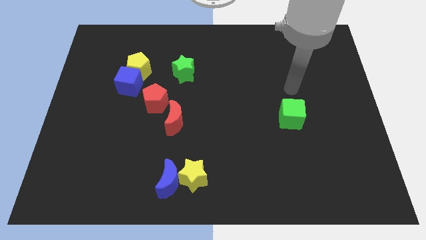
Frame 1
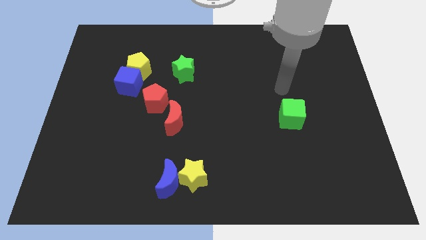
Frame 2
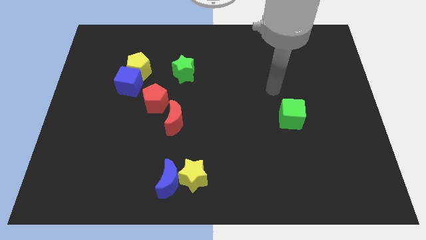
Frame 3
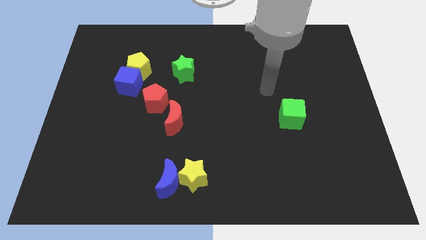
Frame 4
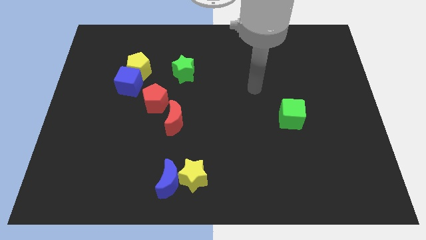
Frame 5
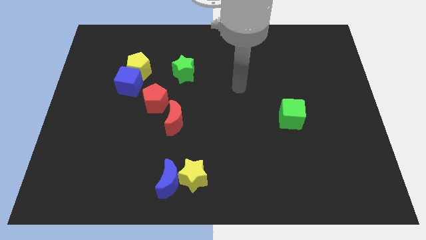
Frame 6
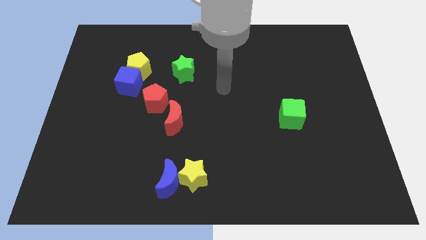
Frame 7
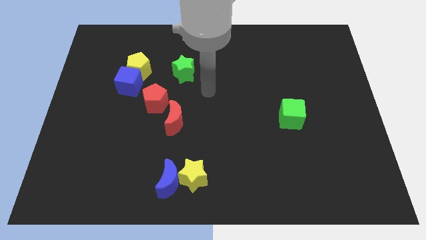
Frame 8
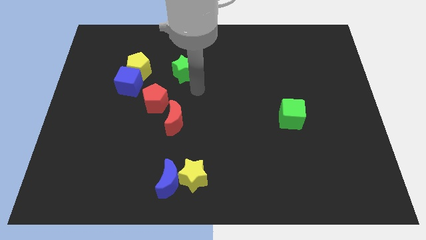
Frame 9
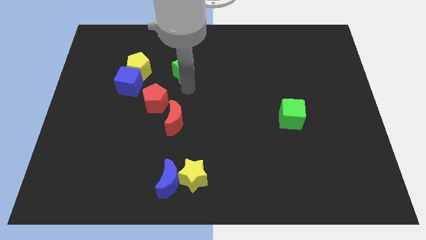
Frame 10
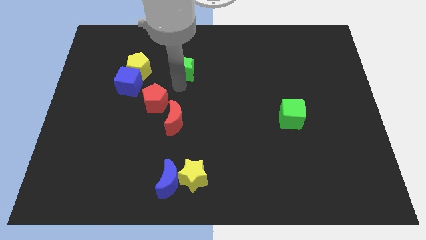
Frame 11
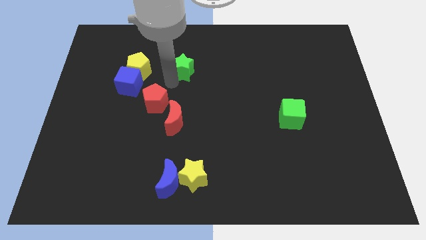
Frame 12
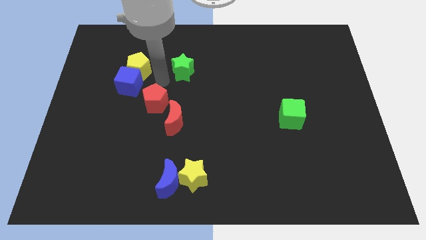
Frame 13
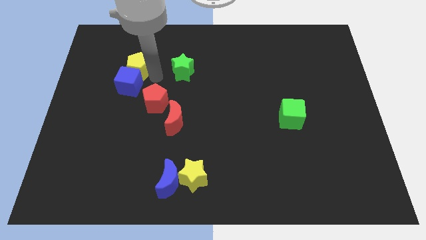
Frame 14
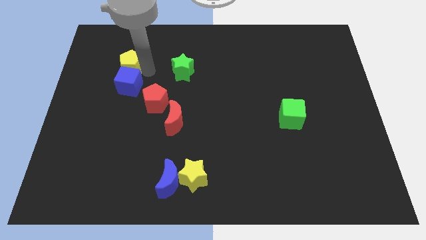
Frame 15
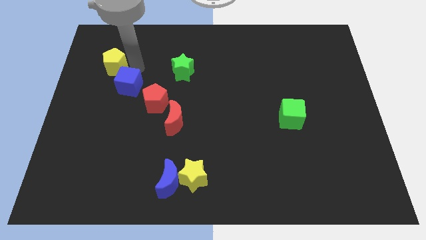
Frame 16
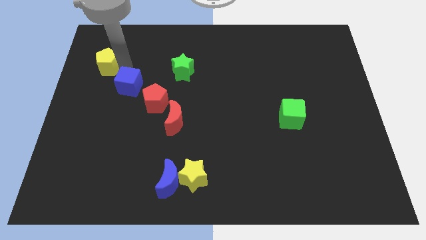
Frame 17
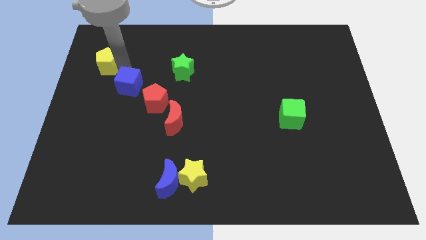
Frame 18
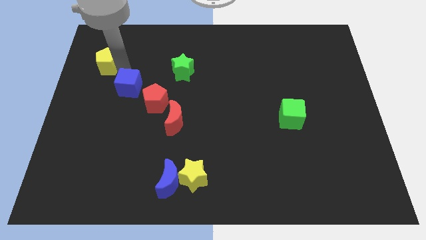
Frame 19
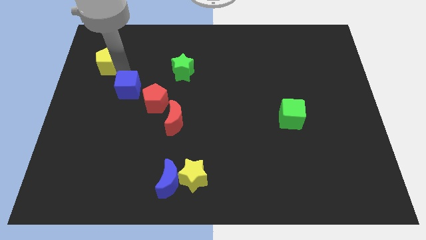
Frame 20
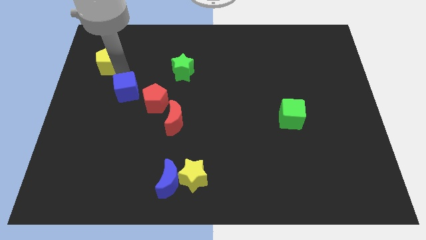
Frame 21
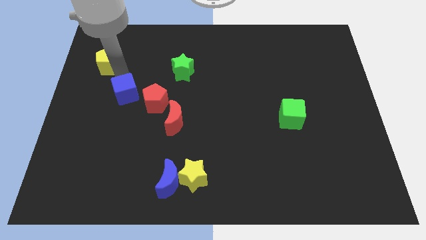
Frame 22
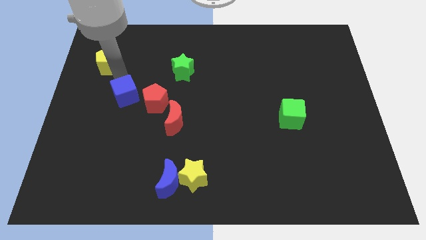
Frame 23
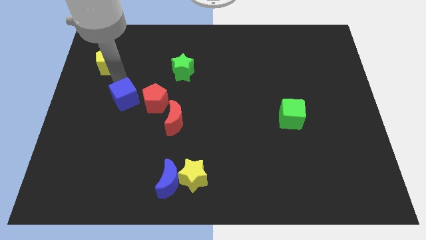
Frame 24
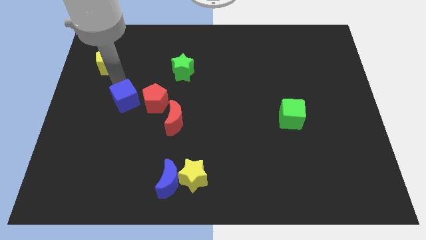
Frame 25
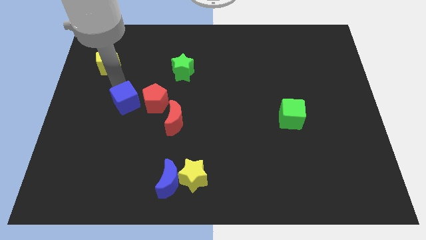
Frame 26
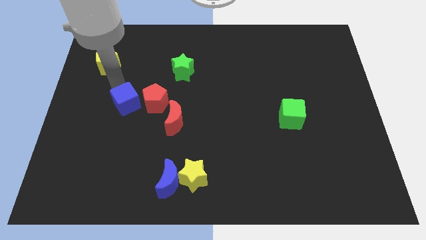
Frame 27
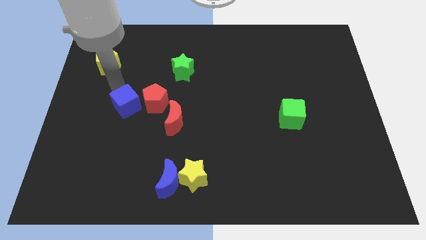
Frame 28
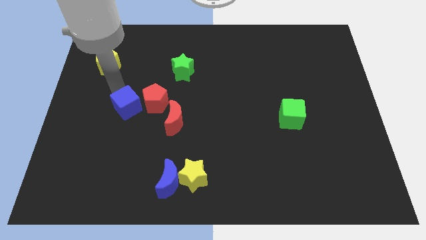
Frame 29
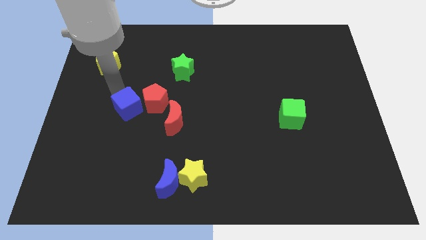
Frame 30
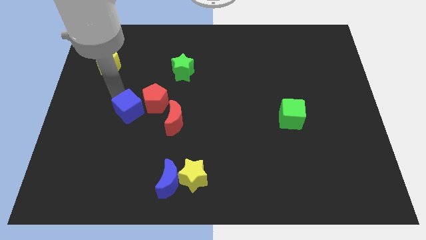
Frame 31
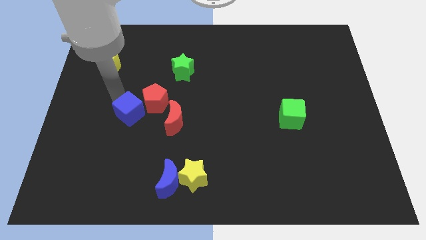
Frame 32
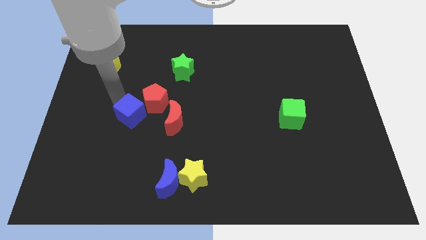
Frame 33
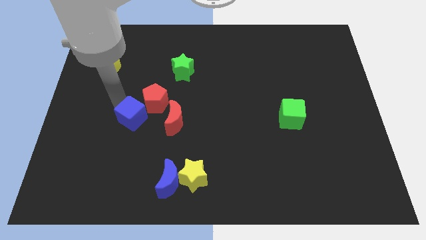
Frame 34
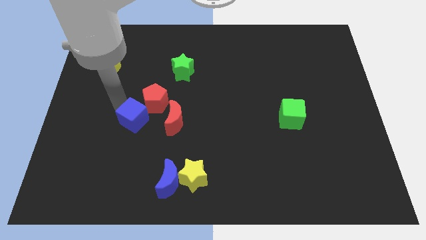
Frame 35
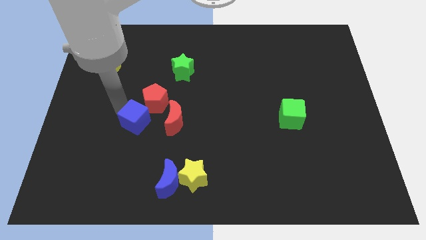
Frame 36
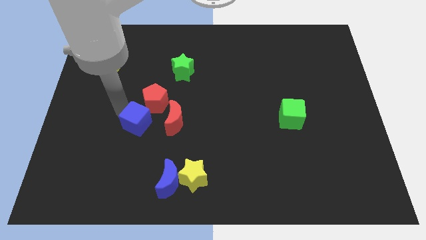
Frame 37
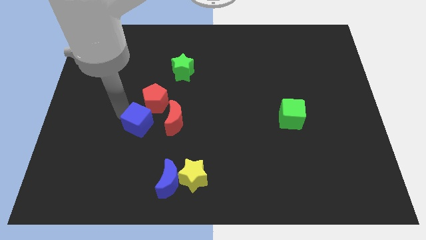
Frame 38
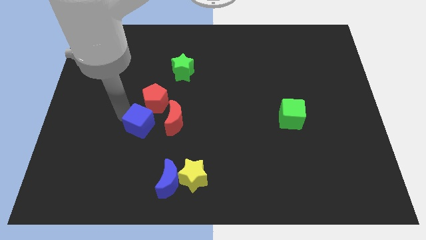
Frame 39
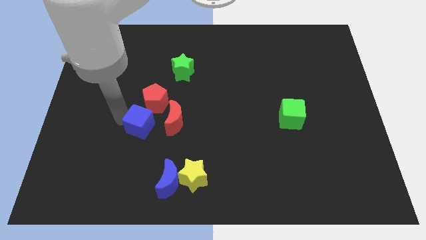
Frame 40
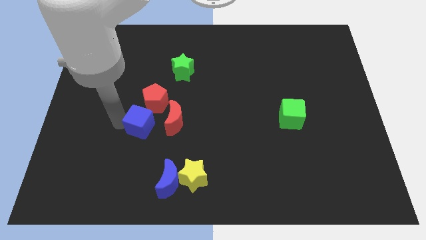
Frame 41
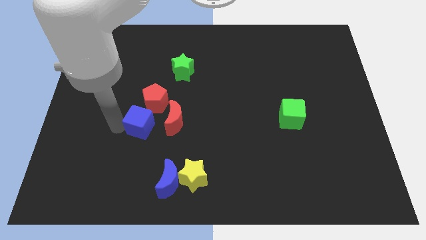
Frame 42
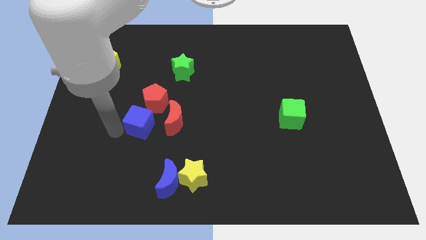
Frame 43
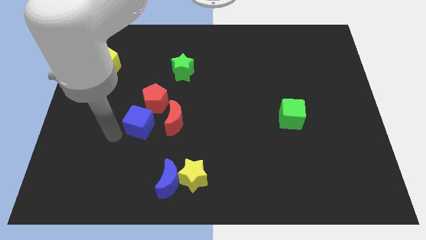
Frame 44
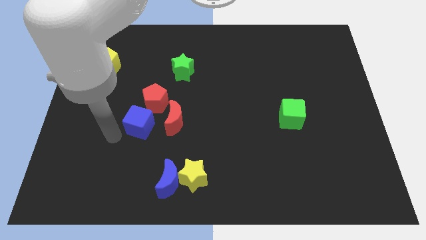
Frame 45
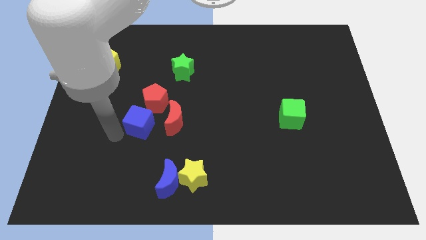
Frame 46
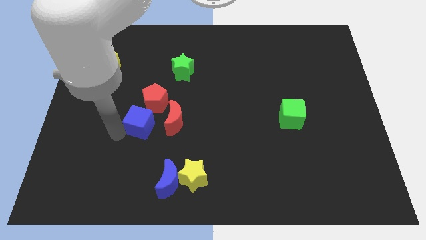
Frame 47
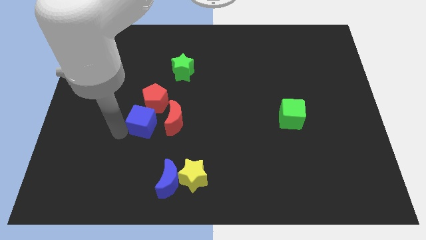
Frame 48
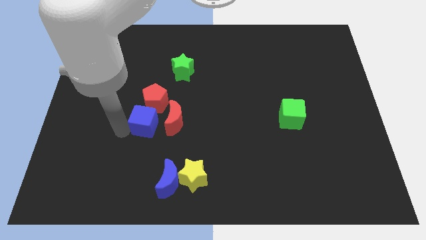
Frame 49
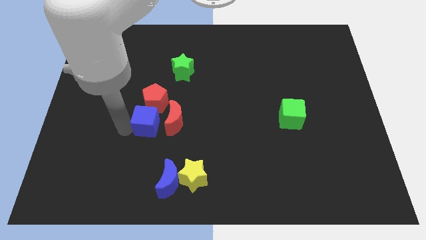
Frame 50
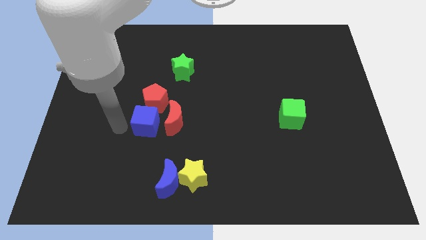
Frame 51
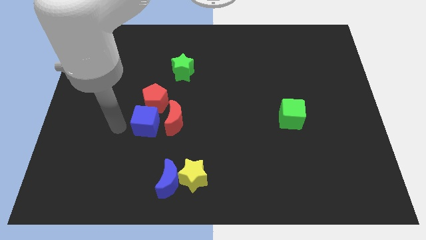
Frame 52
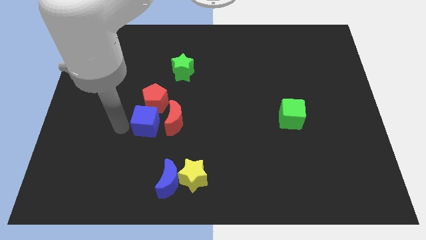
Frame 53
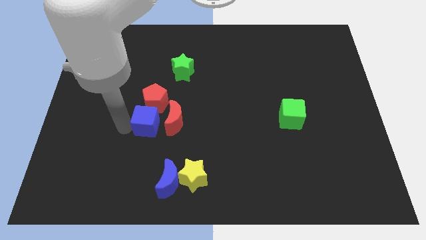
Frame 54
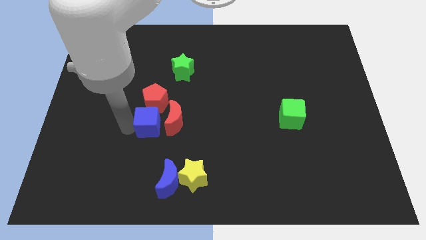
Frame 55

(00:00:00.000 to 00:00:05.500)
move the blue cube next to the red moon

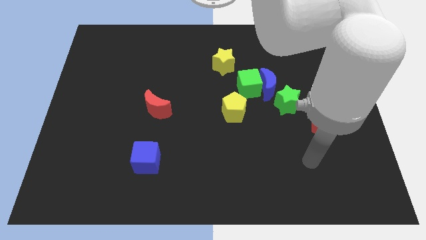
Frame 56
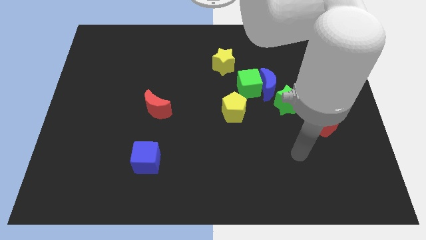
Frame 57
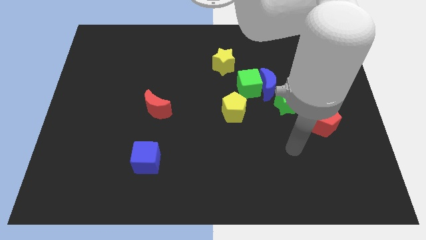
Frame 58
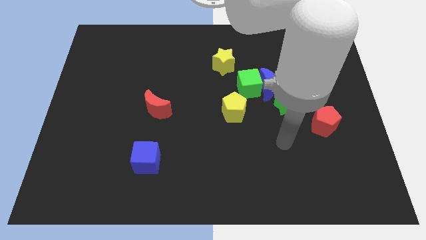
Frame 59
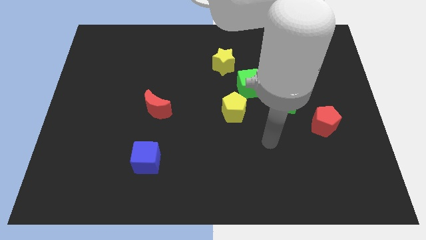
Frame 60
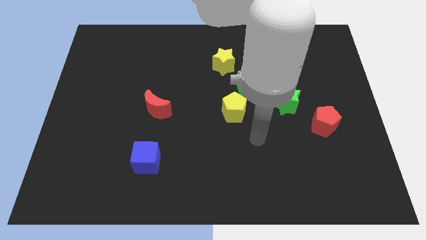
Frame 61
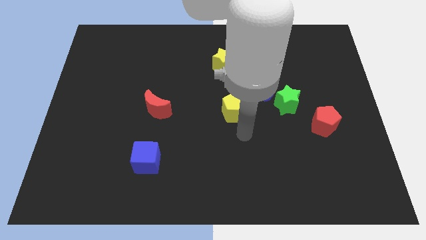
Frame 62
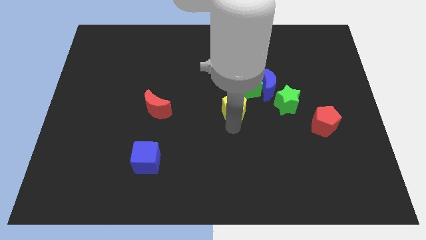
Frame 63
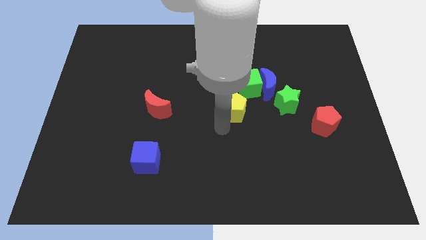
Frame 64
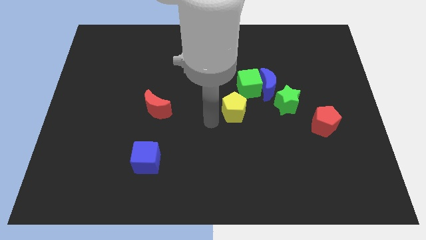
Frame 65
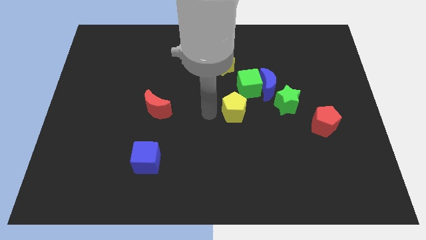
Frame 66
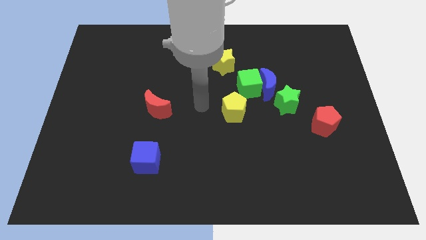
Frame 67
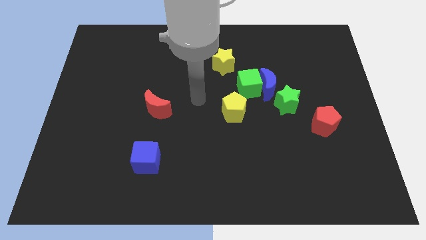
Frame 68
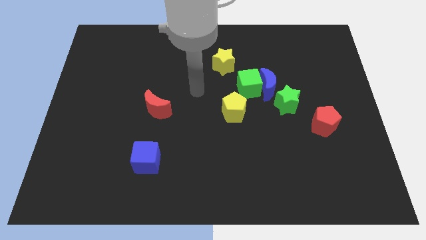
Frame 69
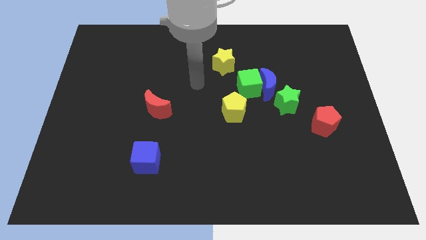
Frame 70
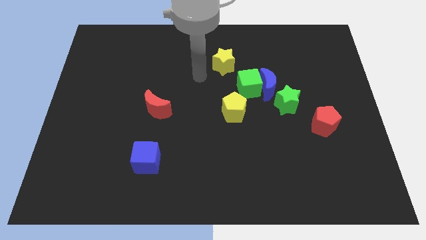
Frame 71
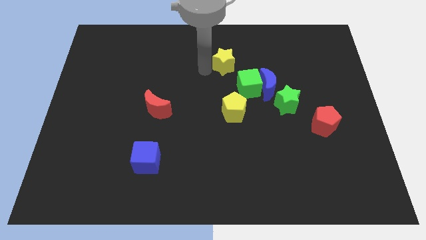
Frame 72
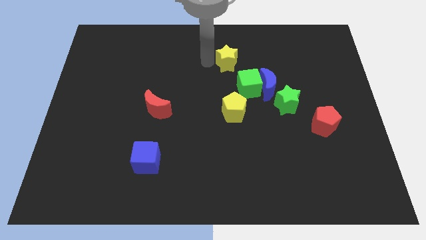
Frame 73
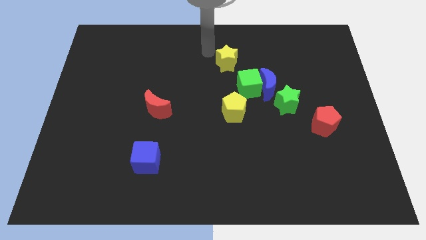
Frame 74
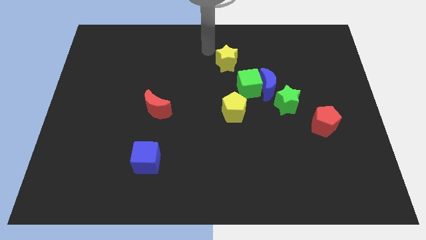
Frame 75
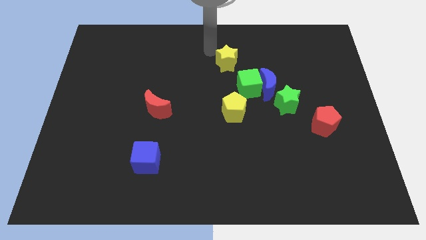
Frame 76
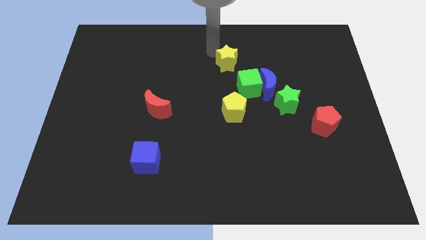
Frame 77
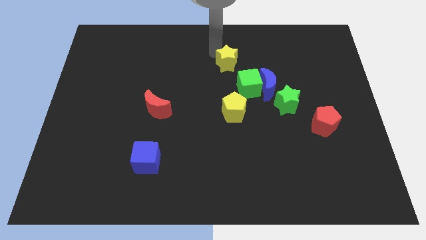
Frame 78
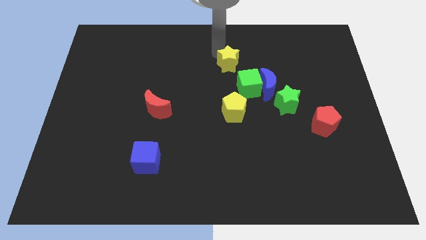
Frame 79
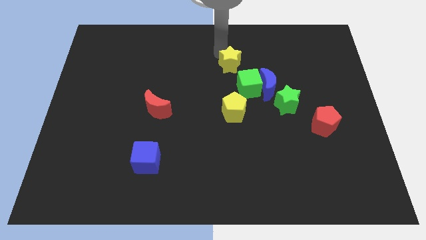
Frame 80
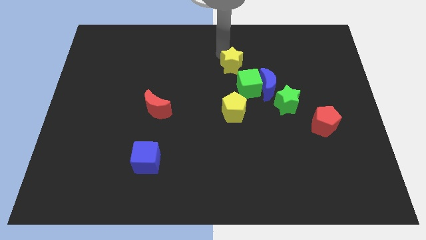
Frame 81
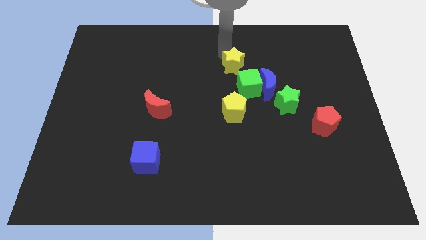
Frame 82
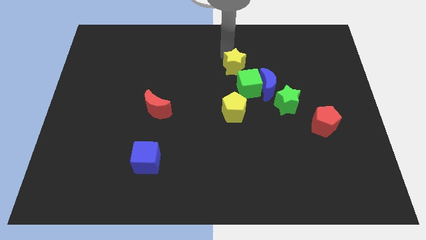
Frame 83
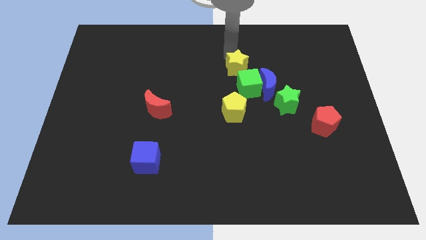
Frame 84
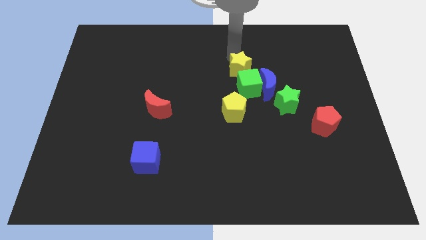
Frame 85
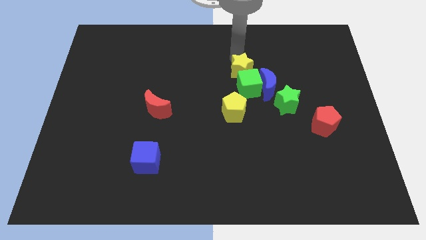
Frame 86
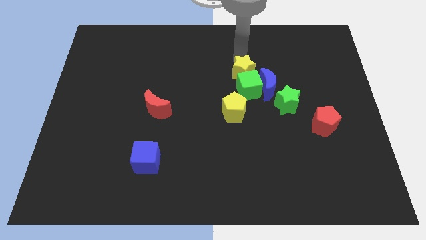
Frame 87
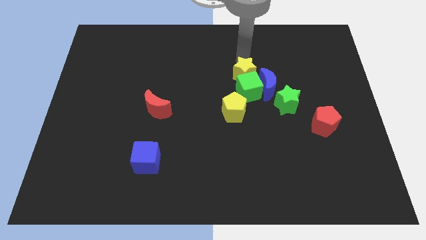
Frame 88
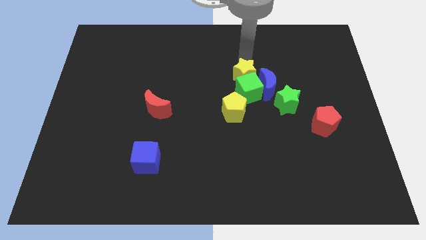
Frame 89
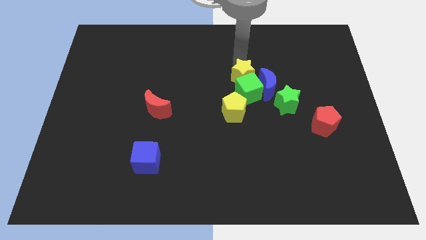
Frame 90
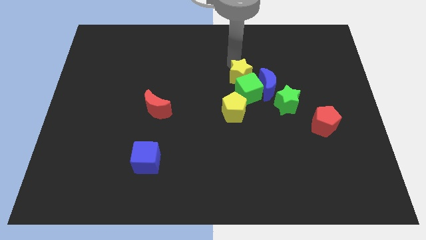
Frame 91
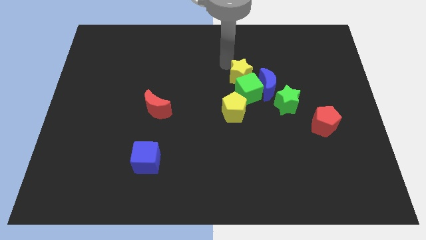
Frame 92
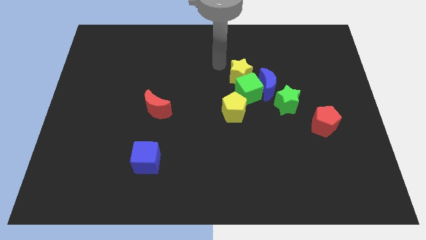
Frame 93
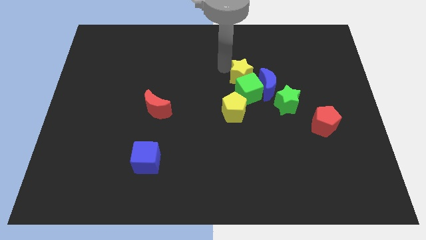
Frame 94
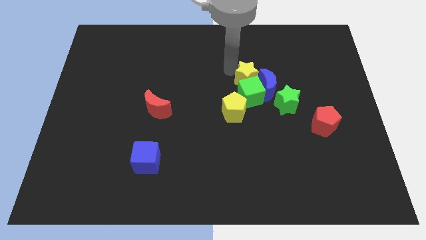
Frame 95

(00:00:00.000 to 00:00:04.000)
move the yellow star next to the blue moon
